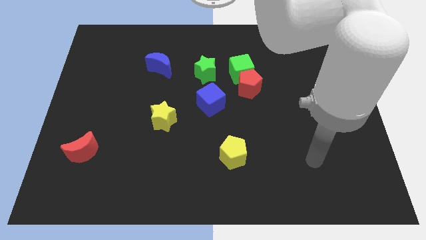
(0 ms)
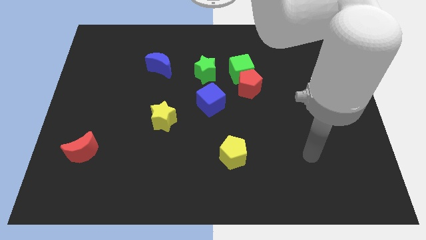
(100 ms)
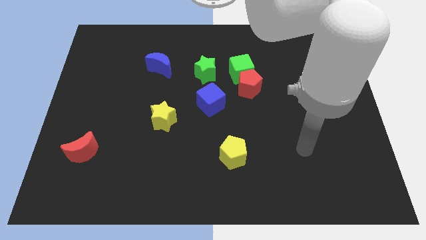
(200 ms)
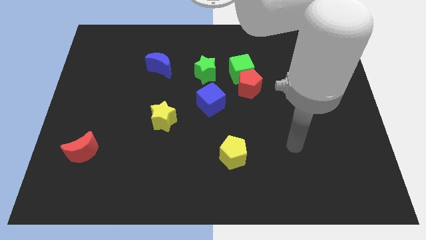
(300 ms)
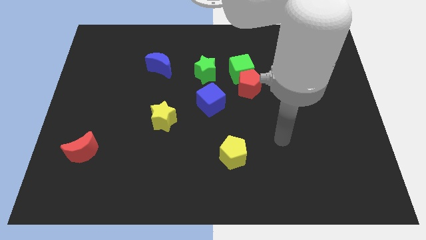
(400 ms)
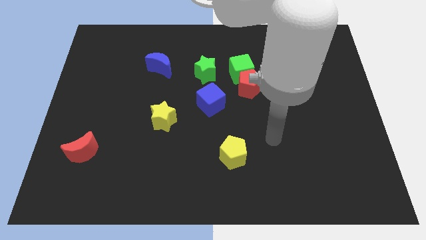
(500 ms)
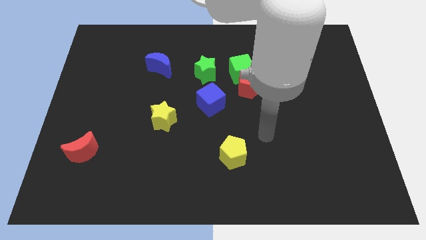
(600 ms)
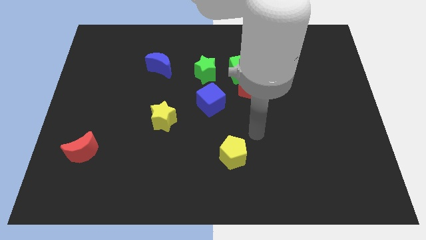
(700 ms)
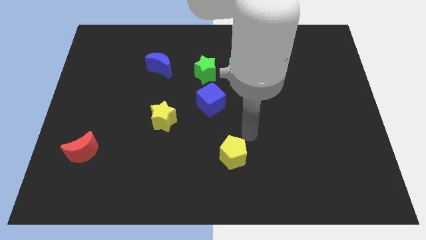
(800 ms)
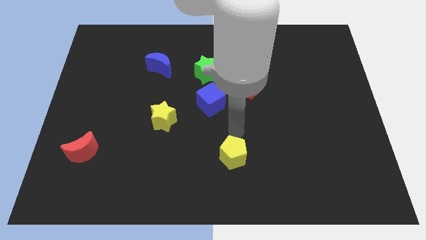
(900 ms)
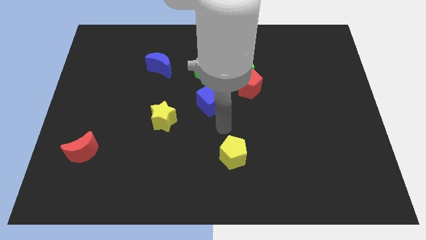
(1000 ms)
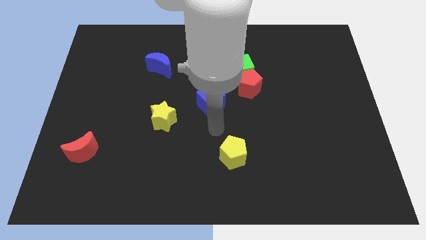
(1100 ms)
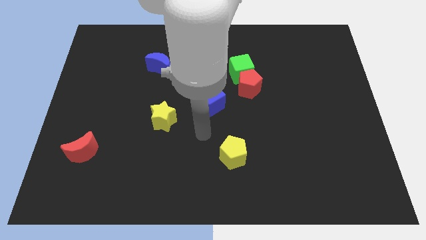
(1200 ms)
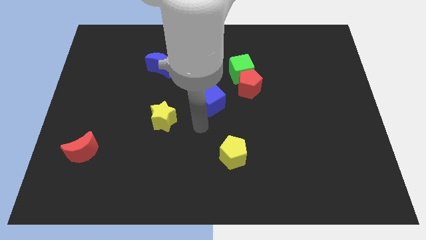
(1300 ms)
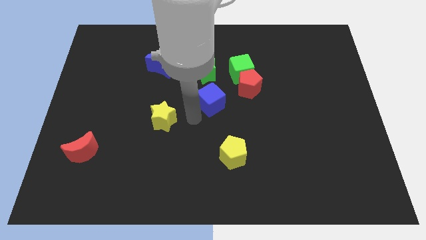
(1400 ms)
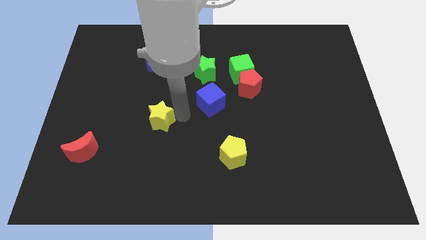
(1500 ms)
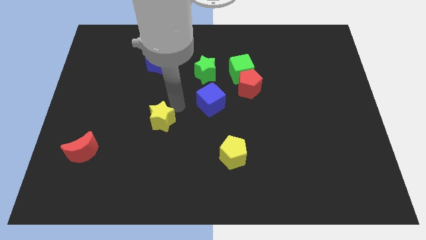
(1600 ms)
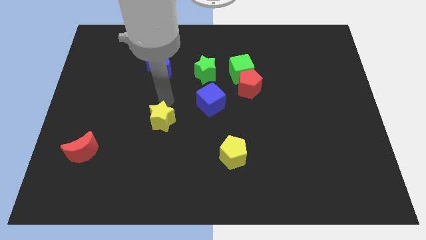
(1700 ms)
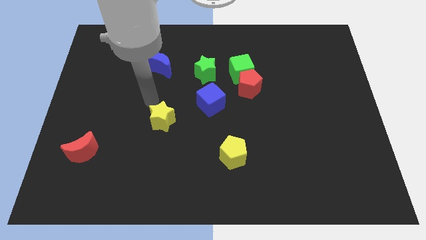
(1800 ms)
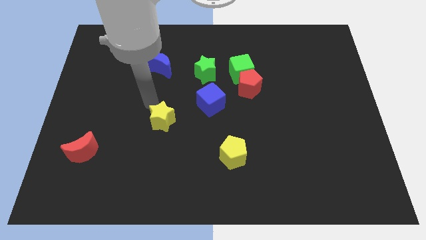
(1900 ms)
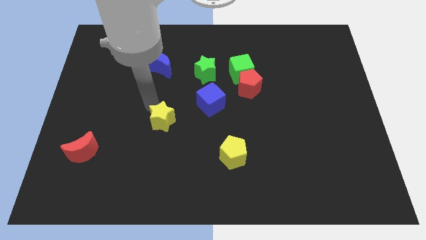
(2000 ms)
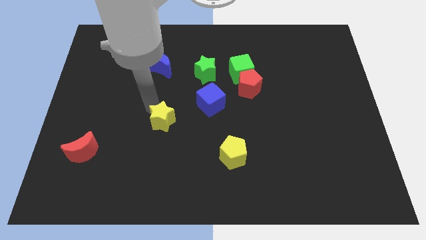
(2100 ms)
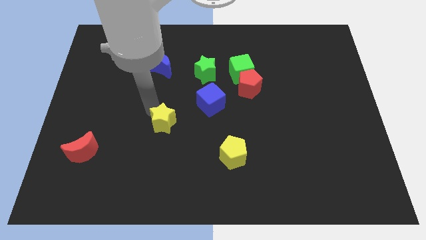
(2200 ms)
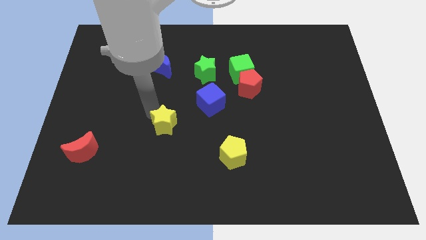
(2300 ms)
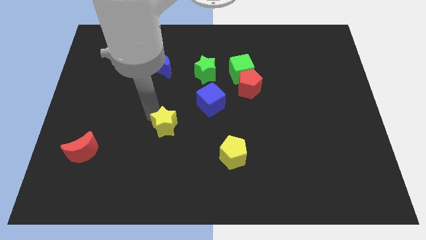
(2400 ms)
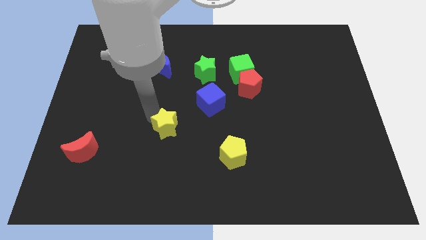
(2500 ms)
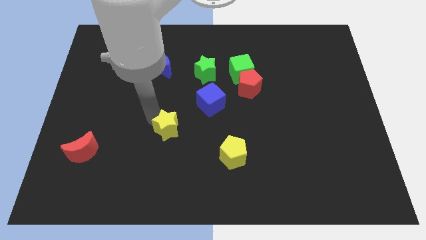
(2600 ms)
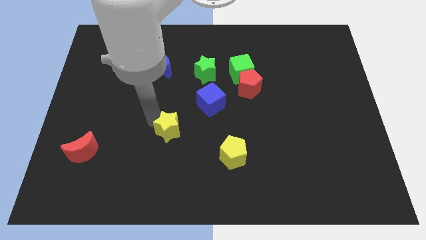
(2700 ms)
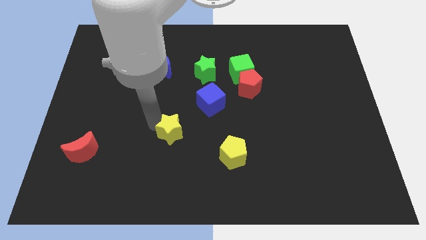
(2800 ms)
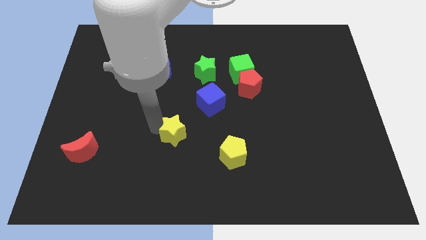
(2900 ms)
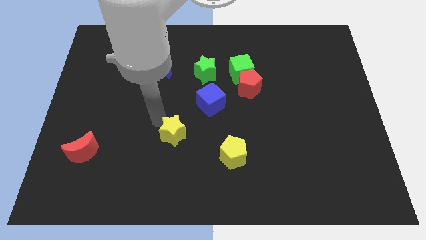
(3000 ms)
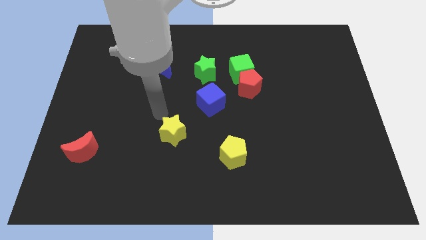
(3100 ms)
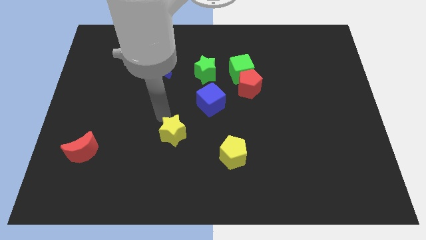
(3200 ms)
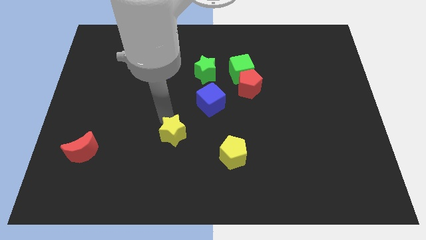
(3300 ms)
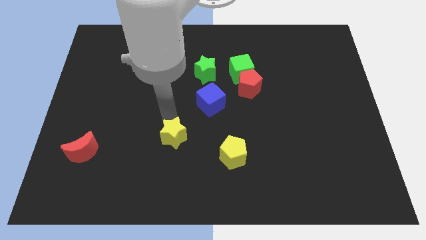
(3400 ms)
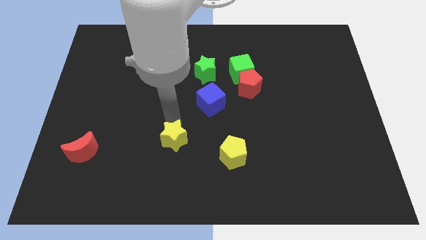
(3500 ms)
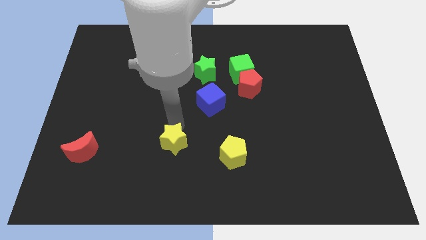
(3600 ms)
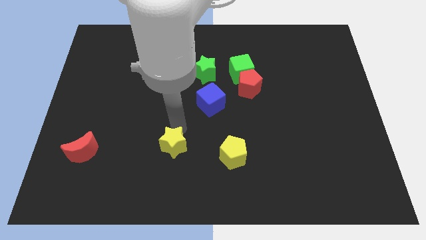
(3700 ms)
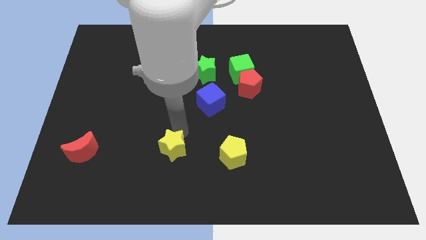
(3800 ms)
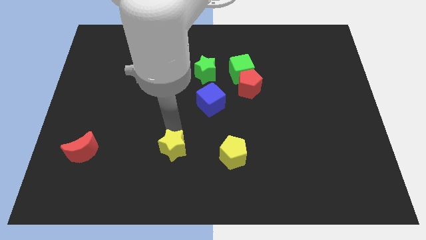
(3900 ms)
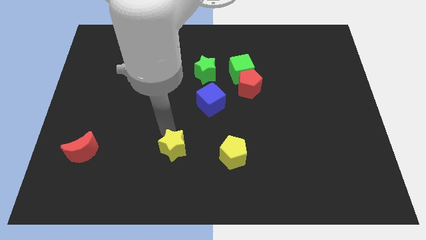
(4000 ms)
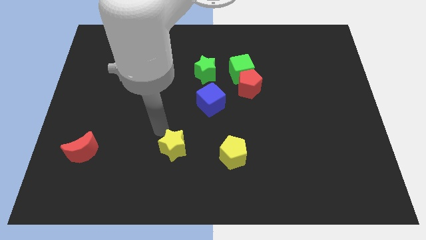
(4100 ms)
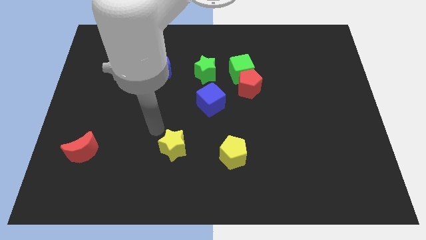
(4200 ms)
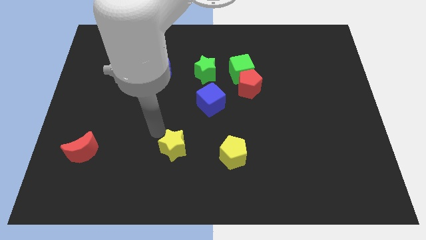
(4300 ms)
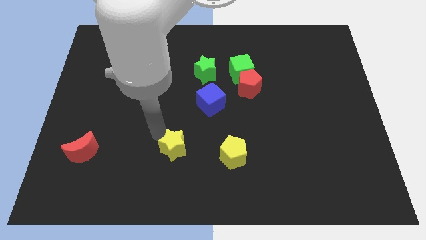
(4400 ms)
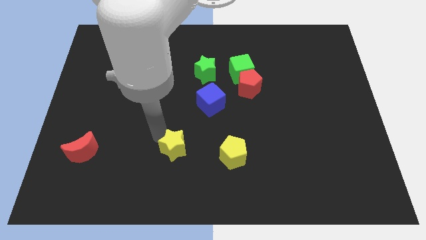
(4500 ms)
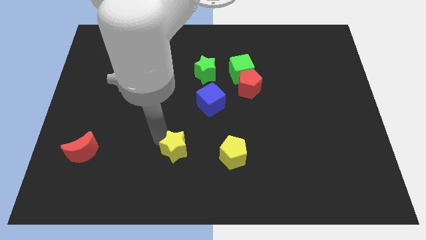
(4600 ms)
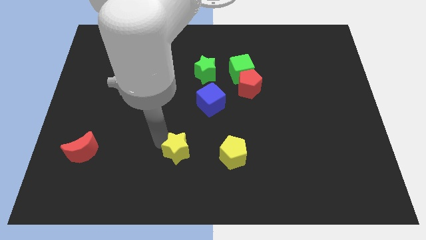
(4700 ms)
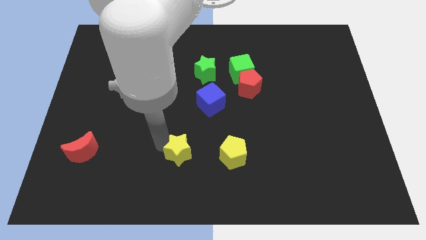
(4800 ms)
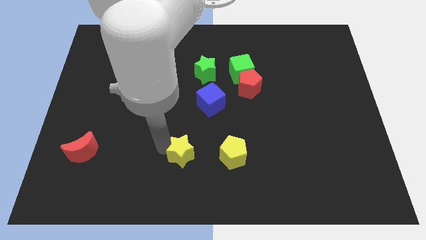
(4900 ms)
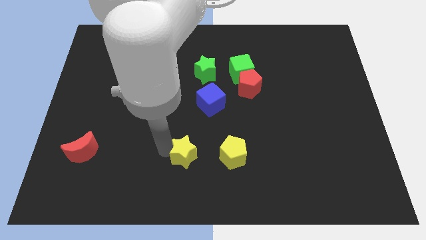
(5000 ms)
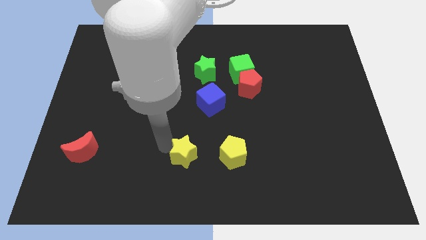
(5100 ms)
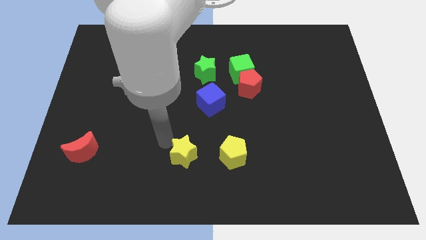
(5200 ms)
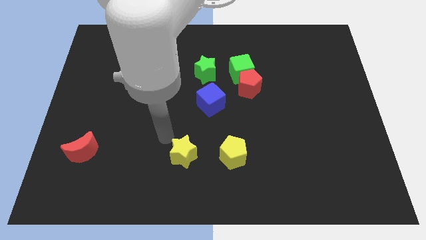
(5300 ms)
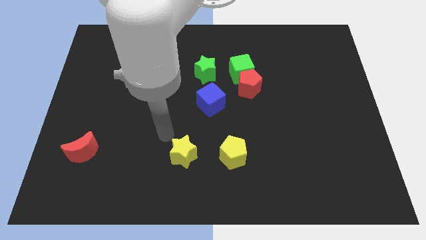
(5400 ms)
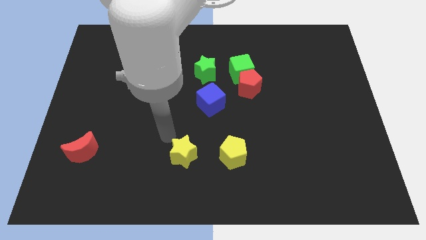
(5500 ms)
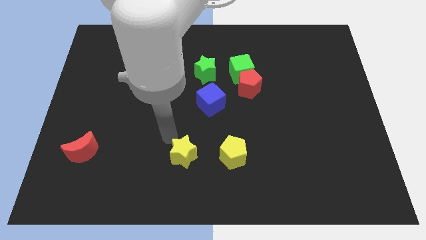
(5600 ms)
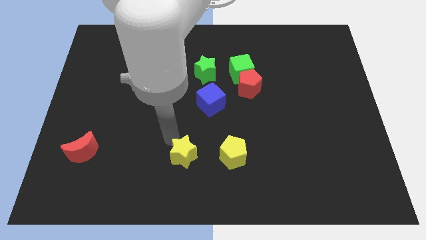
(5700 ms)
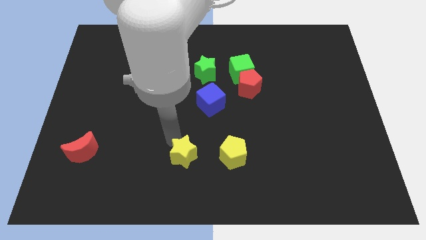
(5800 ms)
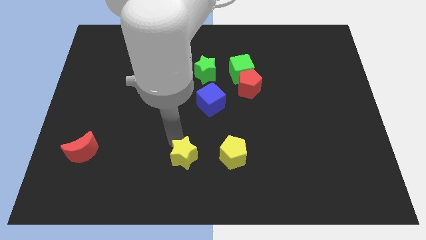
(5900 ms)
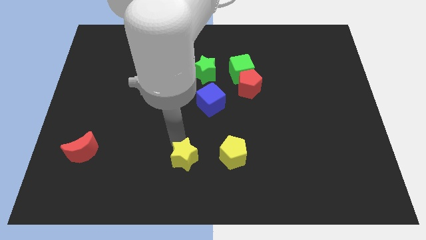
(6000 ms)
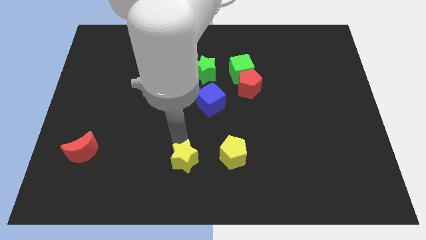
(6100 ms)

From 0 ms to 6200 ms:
slide the yellow star to the bottom side
